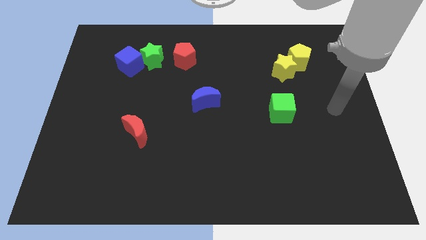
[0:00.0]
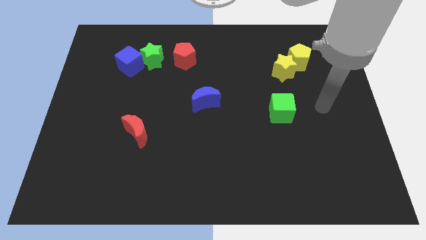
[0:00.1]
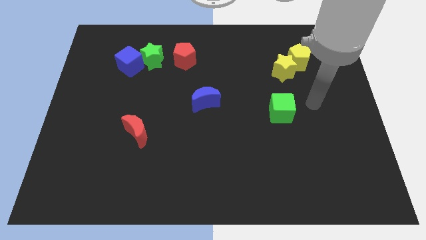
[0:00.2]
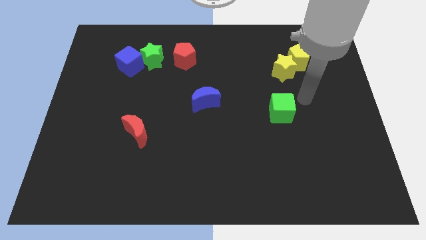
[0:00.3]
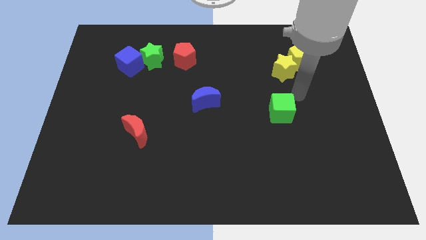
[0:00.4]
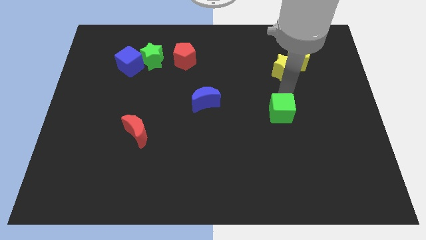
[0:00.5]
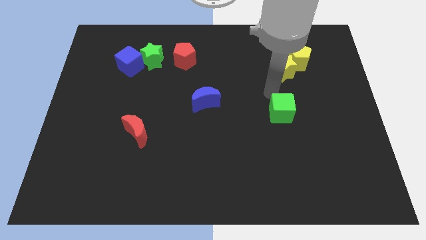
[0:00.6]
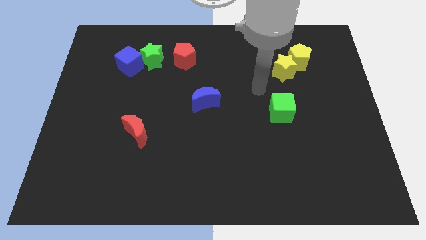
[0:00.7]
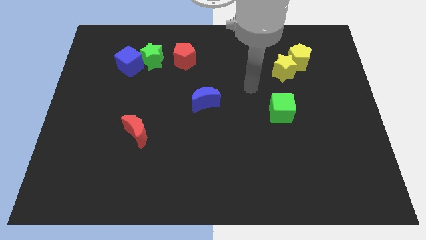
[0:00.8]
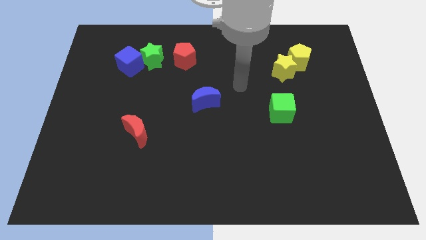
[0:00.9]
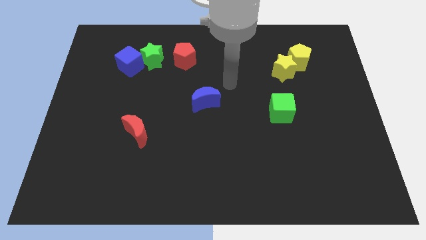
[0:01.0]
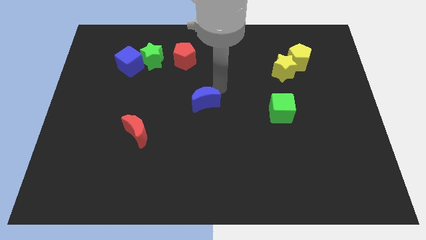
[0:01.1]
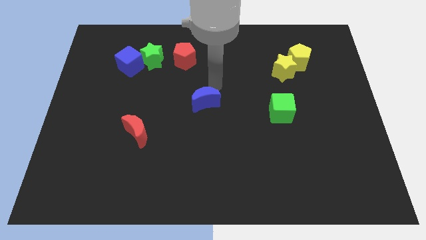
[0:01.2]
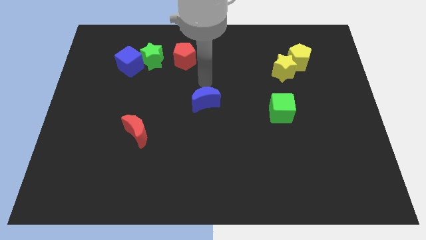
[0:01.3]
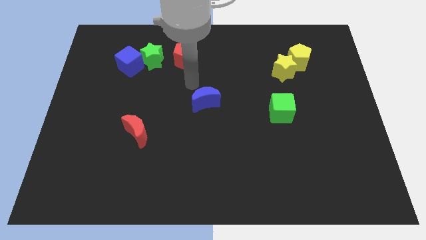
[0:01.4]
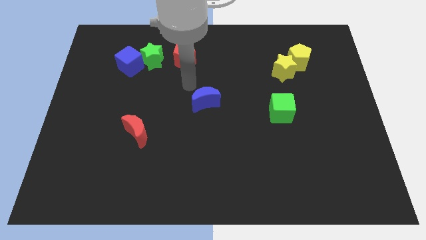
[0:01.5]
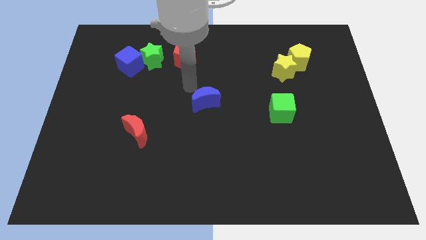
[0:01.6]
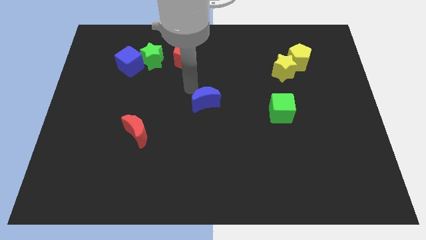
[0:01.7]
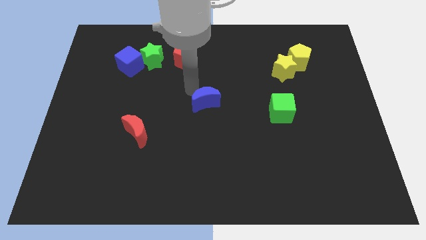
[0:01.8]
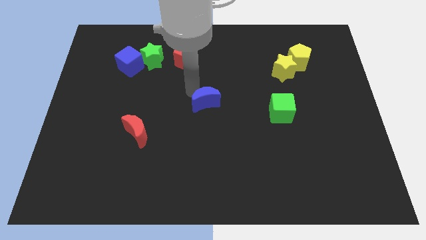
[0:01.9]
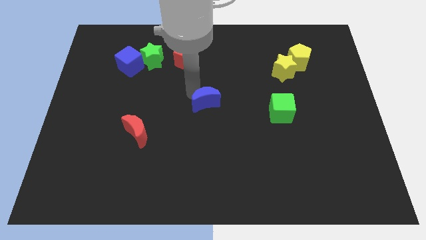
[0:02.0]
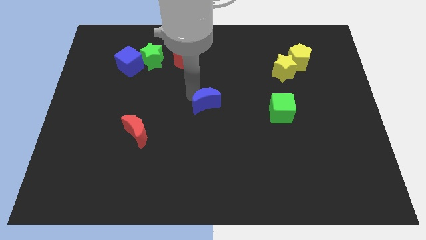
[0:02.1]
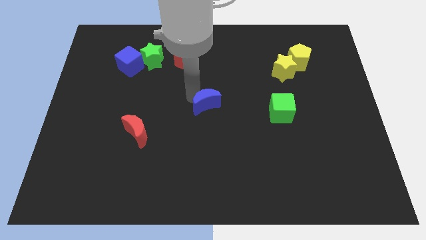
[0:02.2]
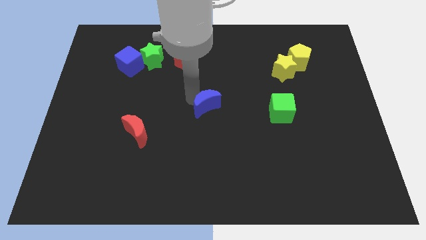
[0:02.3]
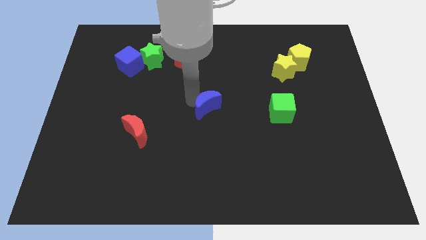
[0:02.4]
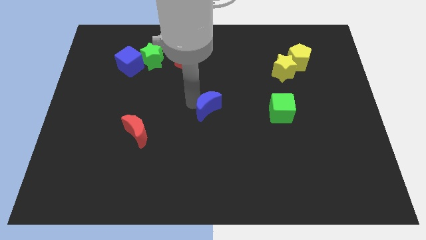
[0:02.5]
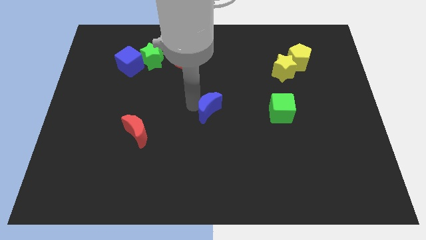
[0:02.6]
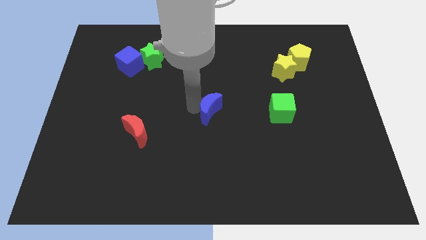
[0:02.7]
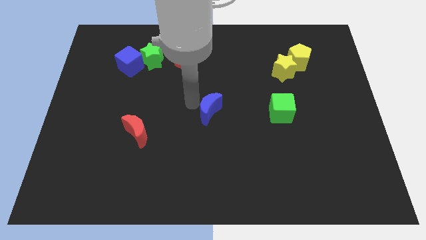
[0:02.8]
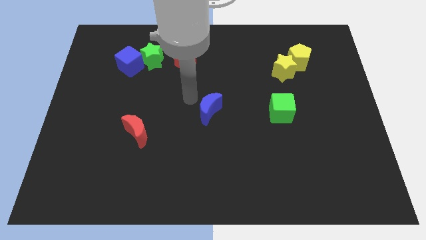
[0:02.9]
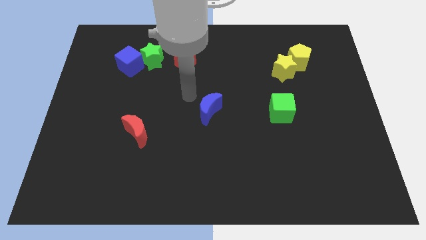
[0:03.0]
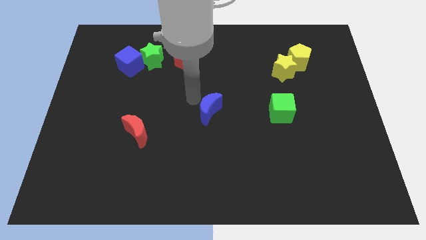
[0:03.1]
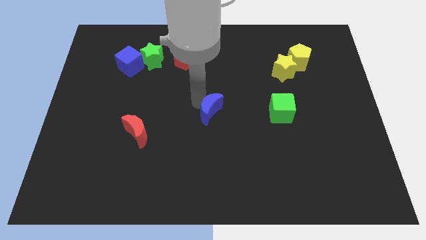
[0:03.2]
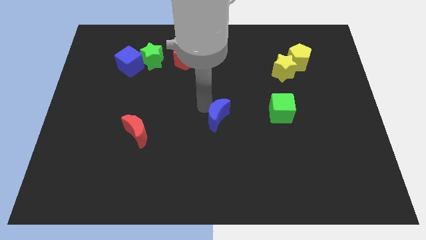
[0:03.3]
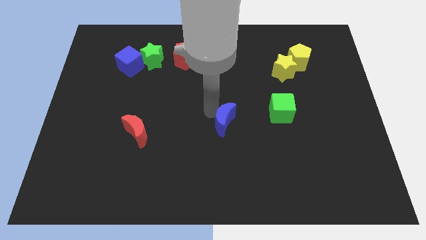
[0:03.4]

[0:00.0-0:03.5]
move the blue moon down and then to the right a bit

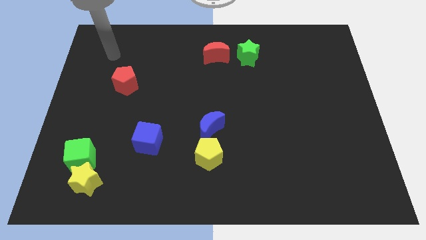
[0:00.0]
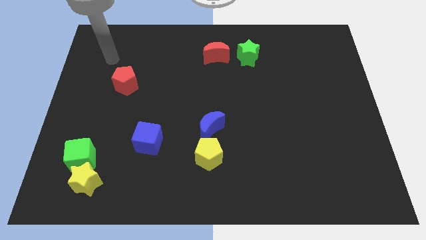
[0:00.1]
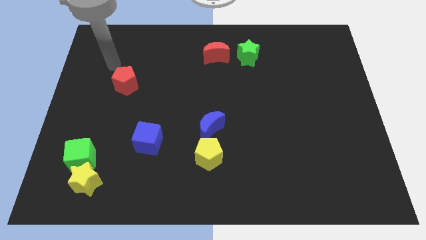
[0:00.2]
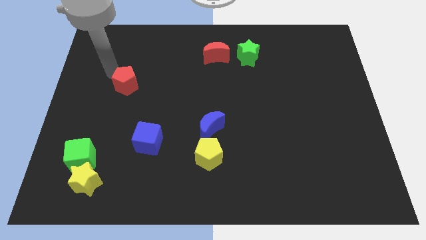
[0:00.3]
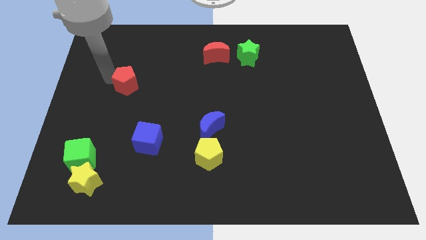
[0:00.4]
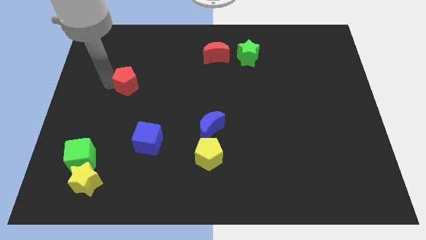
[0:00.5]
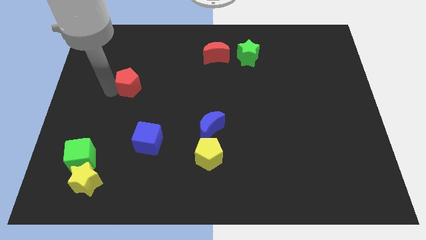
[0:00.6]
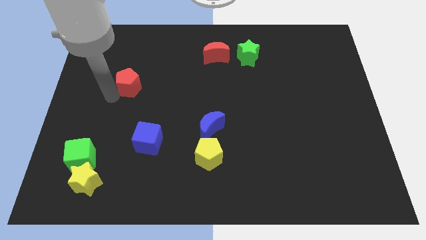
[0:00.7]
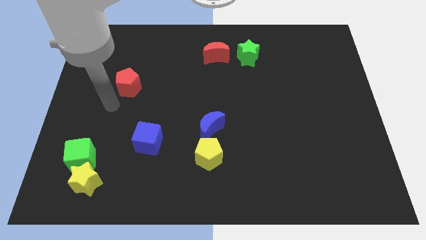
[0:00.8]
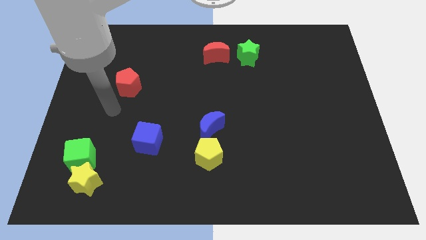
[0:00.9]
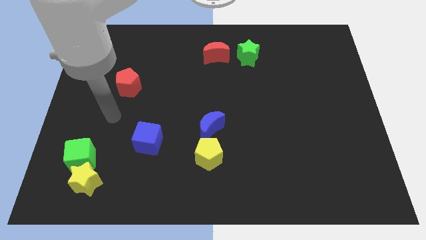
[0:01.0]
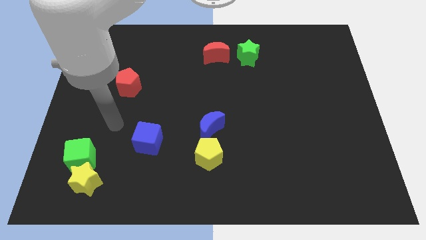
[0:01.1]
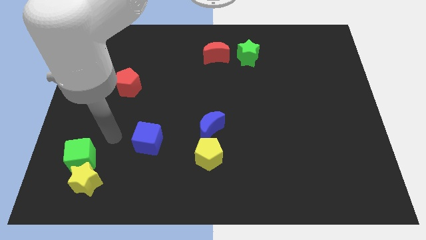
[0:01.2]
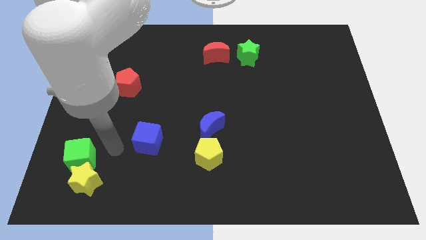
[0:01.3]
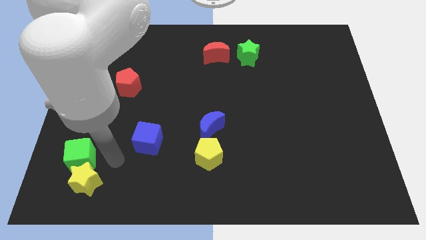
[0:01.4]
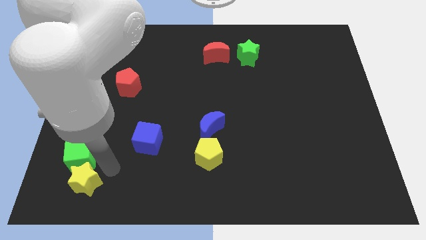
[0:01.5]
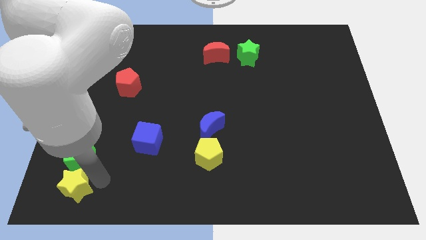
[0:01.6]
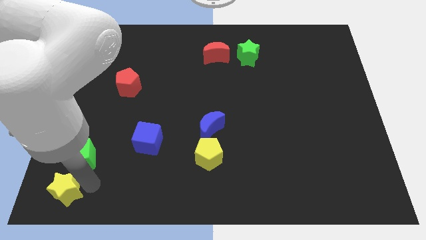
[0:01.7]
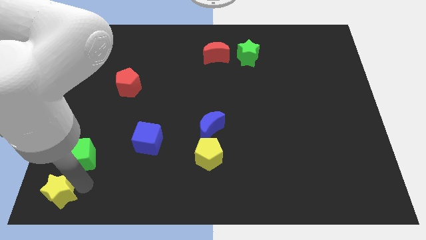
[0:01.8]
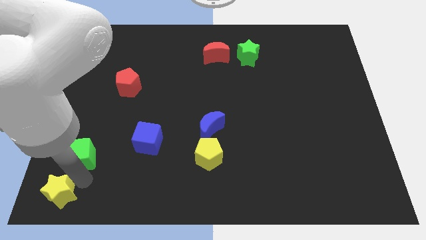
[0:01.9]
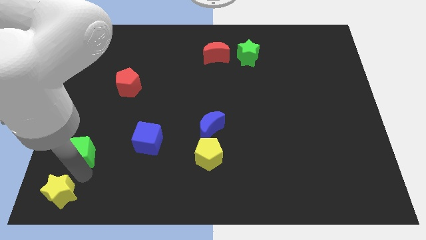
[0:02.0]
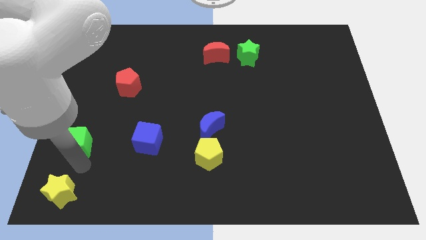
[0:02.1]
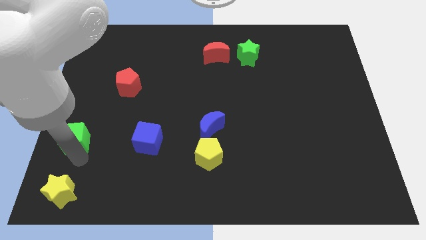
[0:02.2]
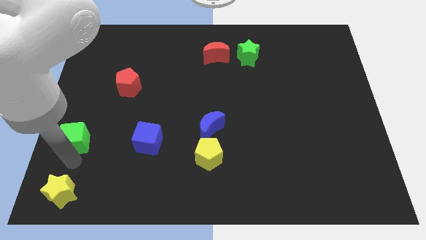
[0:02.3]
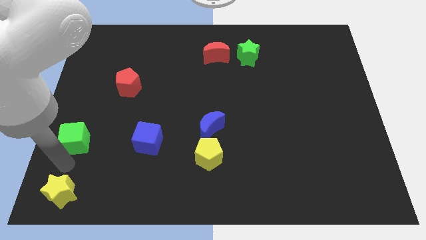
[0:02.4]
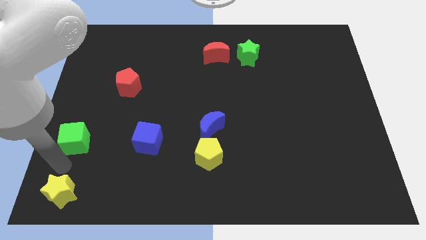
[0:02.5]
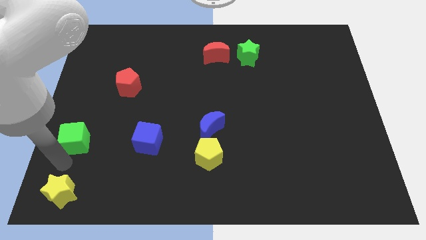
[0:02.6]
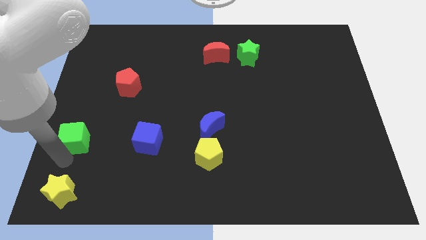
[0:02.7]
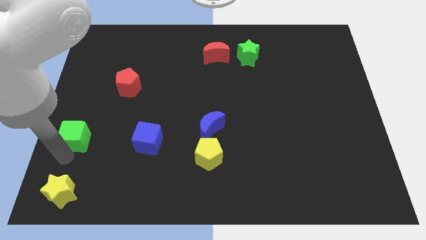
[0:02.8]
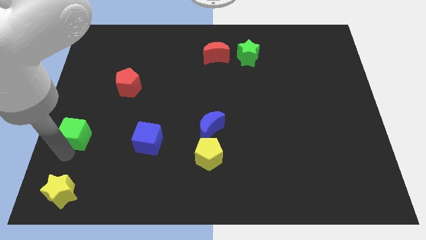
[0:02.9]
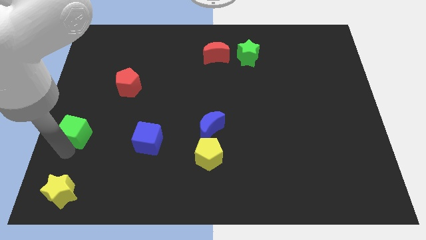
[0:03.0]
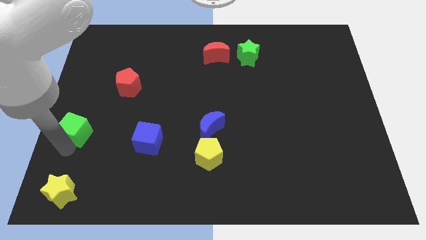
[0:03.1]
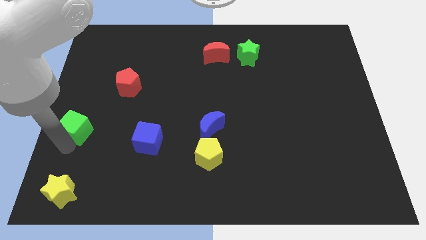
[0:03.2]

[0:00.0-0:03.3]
move the green cube slightly upwards

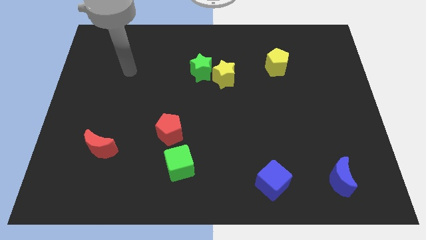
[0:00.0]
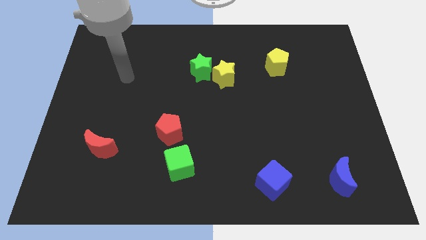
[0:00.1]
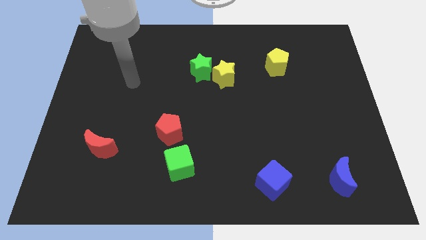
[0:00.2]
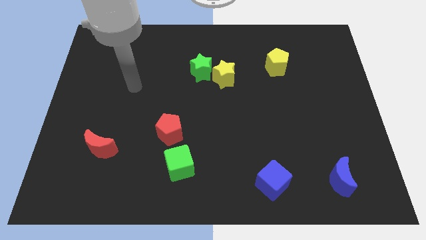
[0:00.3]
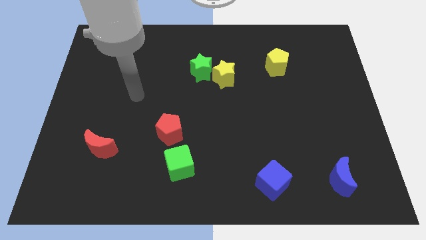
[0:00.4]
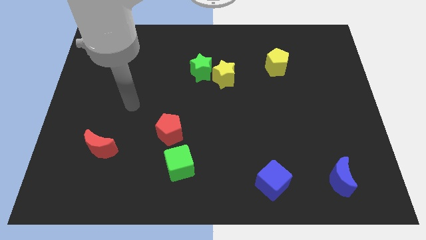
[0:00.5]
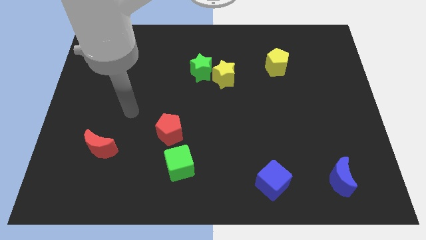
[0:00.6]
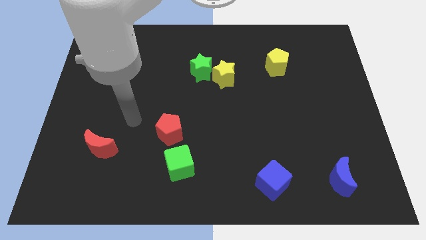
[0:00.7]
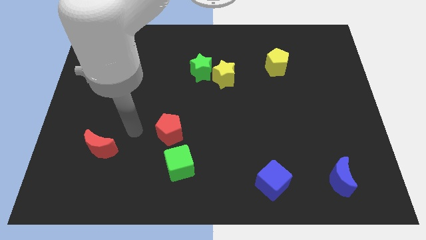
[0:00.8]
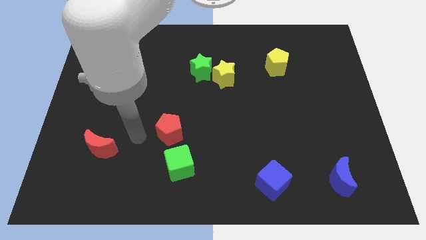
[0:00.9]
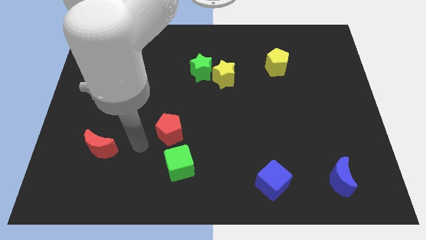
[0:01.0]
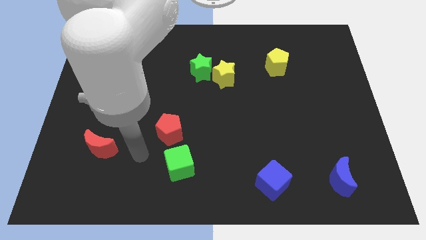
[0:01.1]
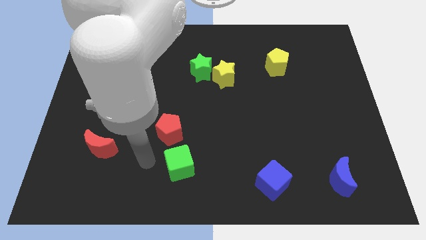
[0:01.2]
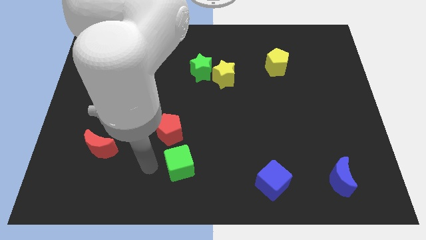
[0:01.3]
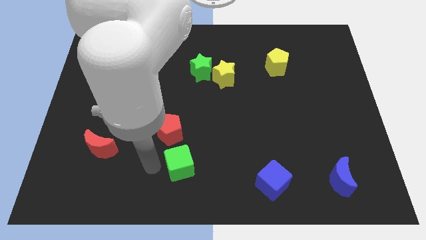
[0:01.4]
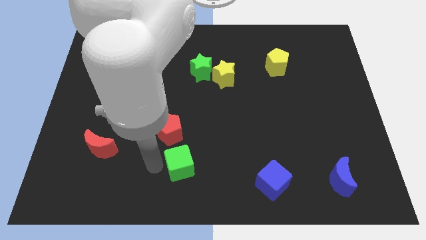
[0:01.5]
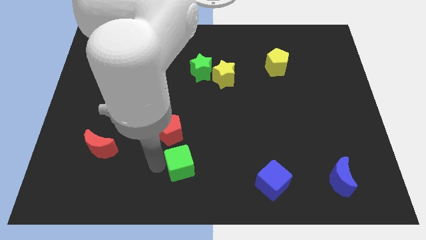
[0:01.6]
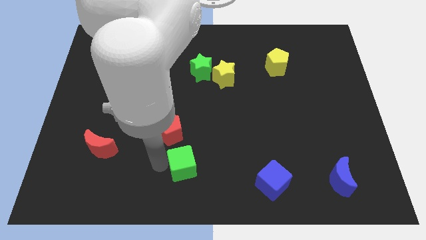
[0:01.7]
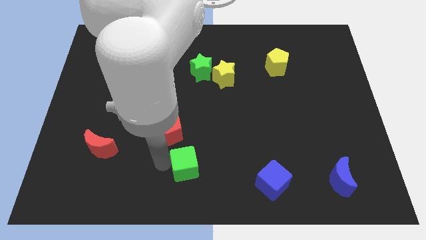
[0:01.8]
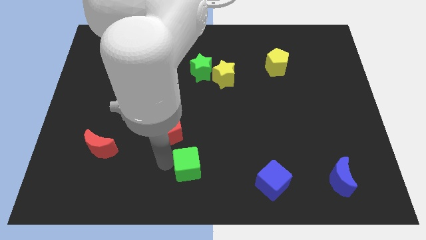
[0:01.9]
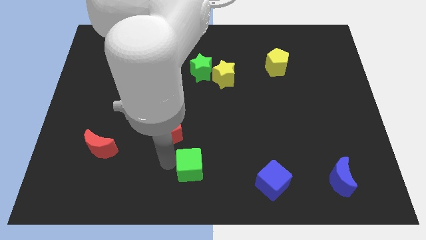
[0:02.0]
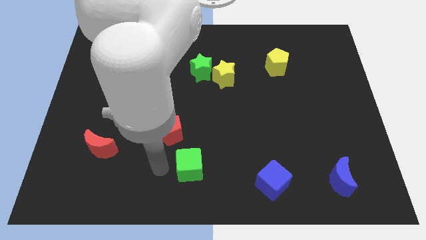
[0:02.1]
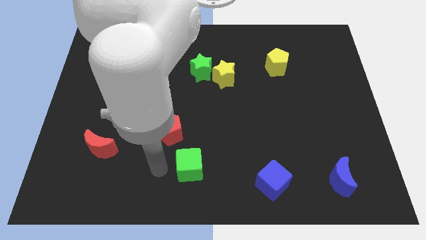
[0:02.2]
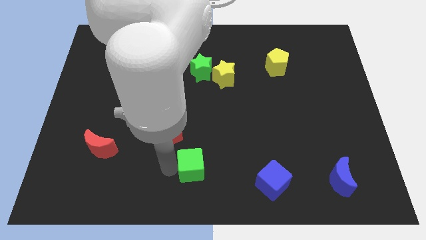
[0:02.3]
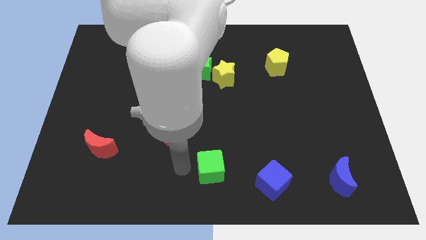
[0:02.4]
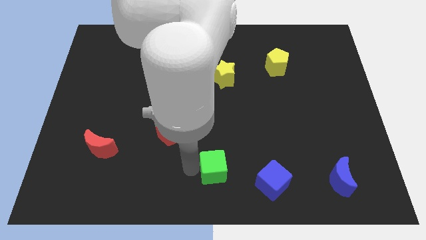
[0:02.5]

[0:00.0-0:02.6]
slide the green cube right somewhat
